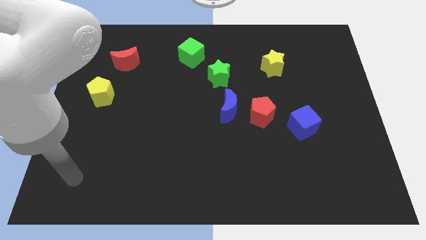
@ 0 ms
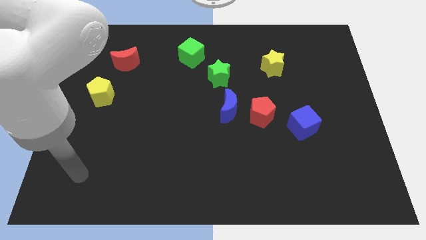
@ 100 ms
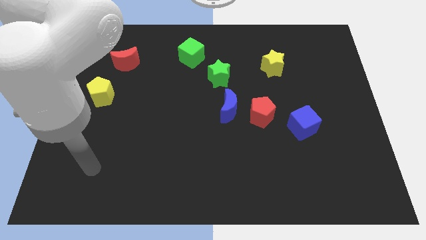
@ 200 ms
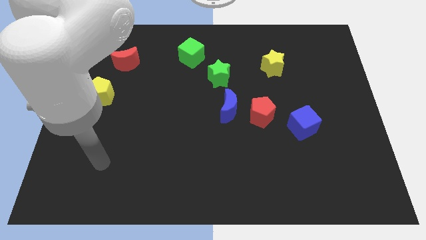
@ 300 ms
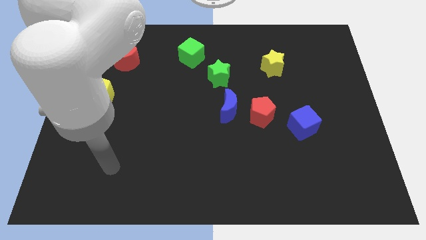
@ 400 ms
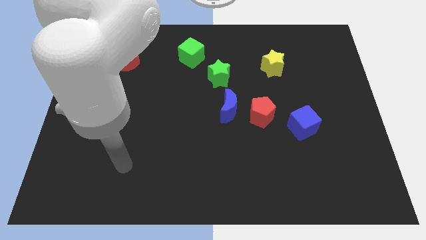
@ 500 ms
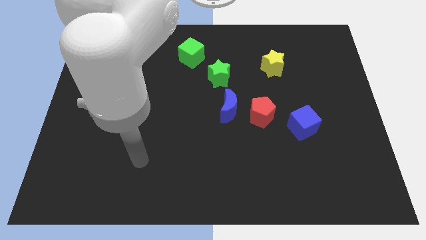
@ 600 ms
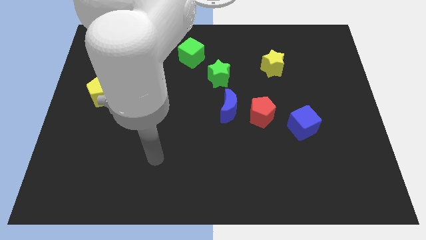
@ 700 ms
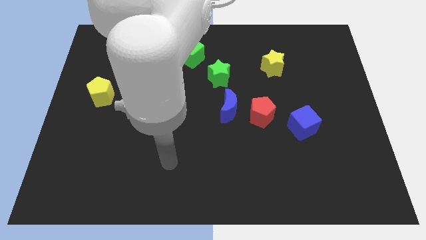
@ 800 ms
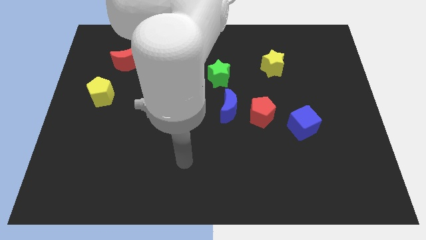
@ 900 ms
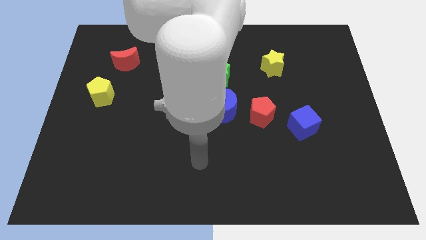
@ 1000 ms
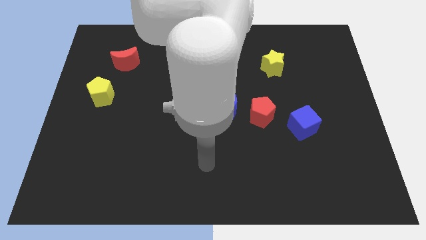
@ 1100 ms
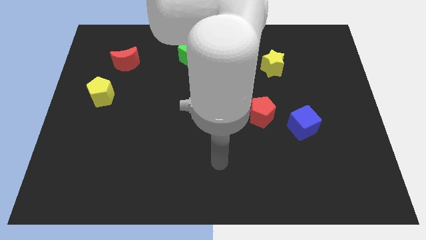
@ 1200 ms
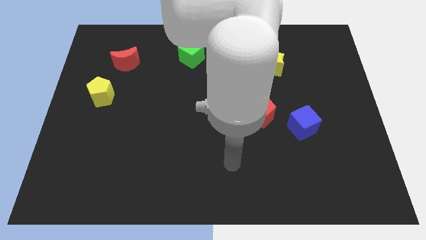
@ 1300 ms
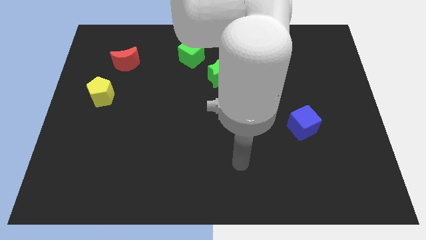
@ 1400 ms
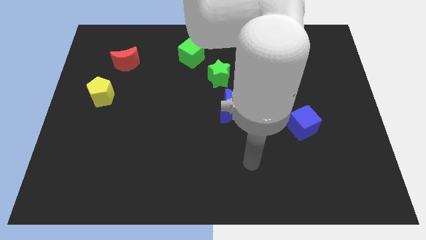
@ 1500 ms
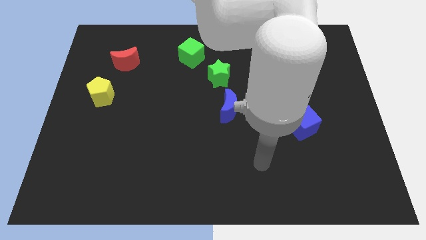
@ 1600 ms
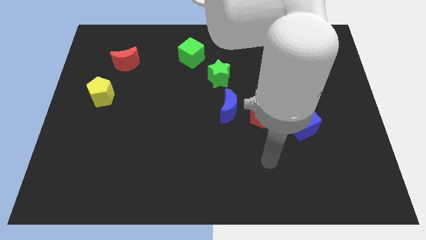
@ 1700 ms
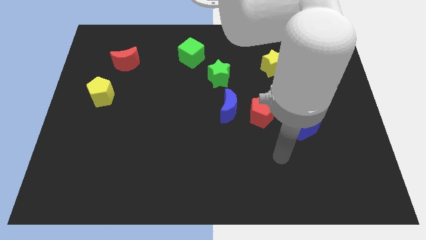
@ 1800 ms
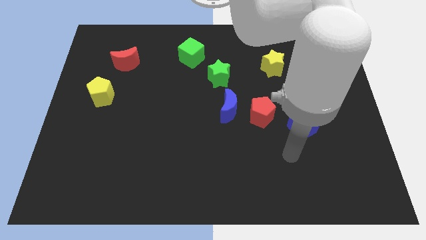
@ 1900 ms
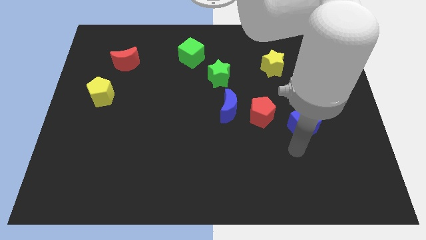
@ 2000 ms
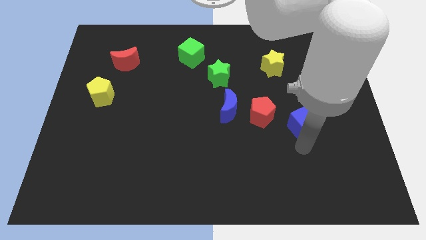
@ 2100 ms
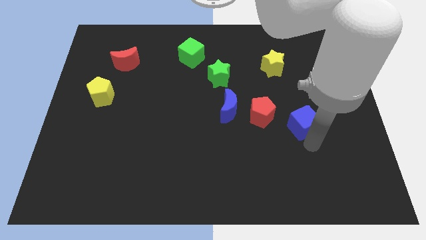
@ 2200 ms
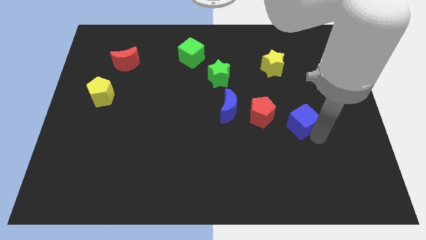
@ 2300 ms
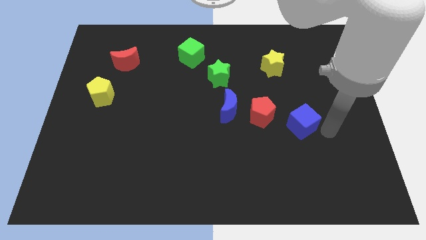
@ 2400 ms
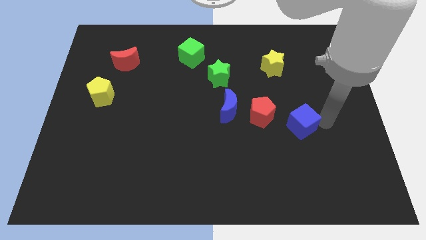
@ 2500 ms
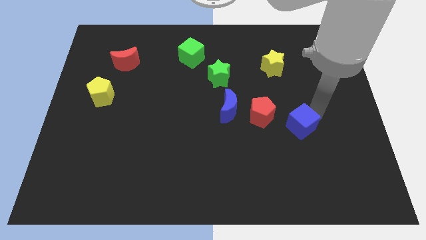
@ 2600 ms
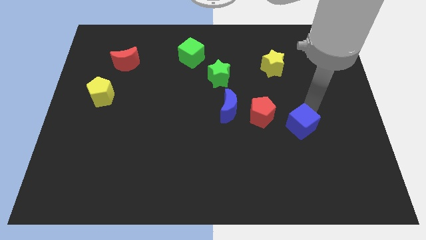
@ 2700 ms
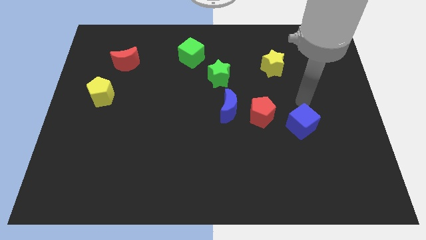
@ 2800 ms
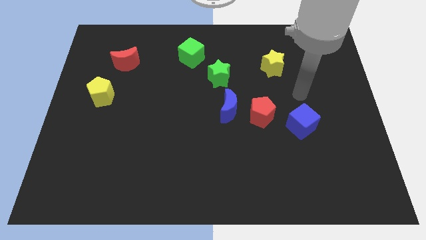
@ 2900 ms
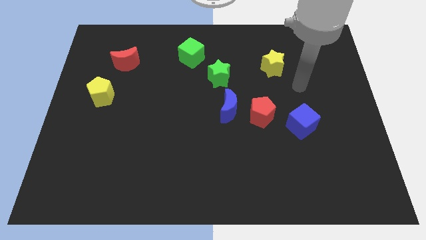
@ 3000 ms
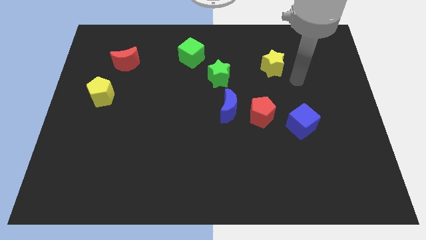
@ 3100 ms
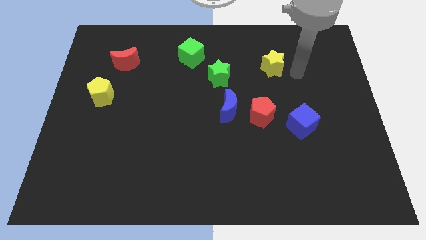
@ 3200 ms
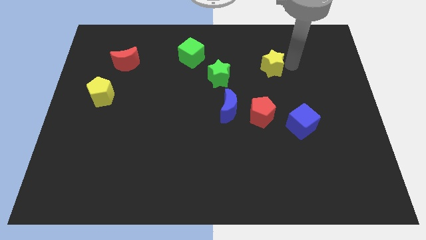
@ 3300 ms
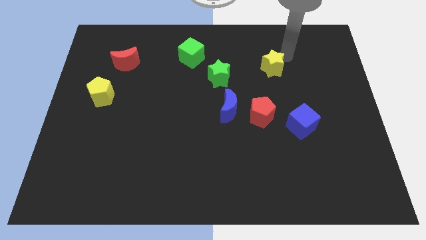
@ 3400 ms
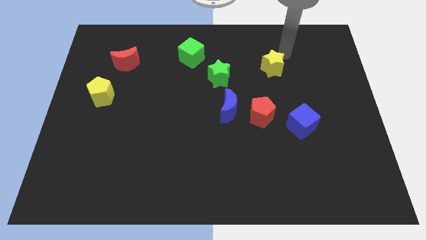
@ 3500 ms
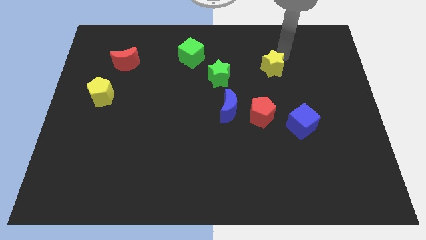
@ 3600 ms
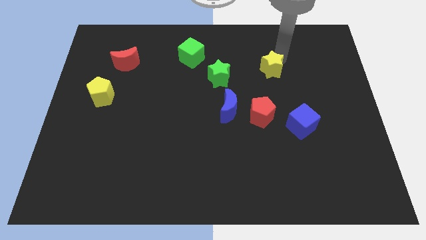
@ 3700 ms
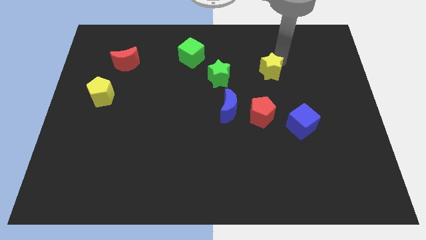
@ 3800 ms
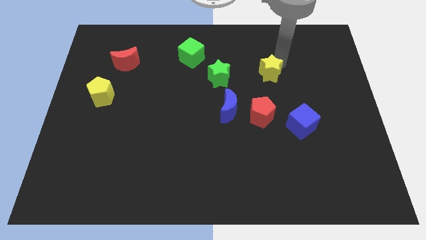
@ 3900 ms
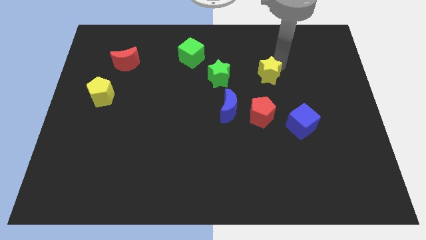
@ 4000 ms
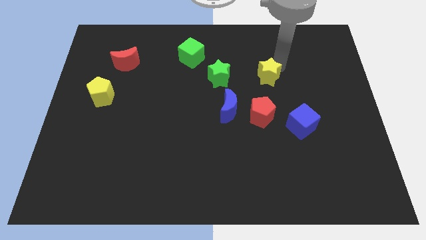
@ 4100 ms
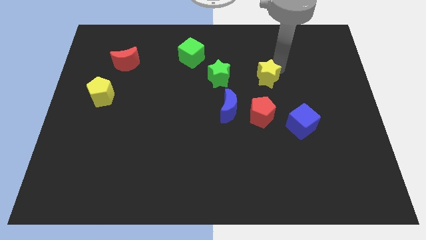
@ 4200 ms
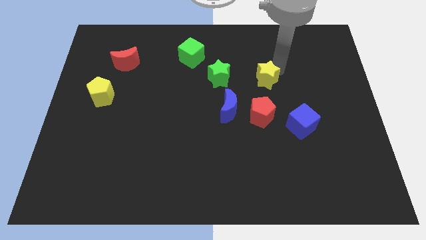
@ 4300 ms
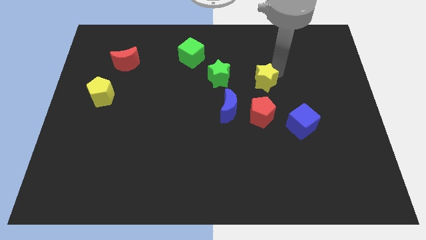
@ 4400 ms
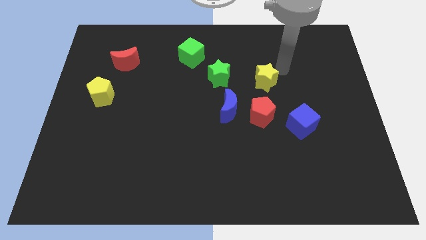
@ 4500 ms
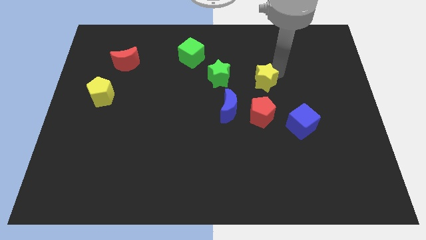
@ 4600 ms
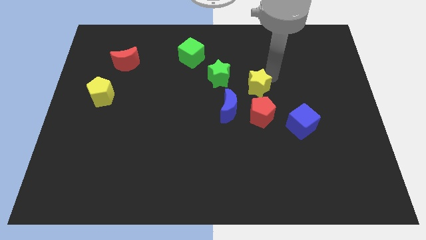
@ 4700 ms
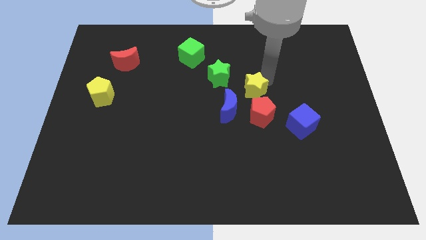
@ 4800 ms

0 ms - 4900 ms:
push the yellow star to the top left of the red pentagon

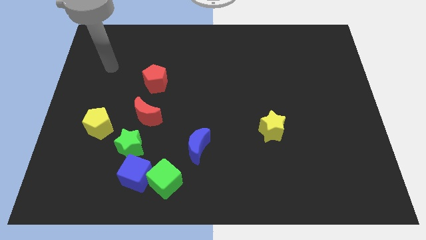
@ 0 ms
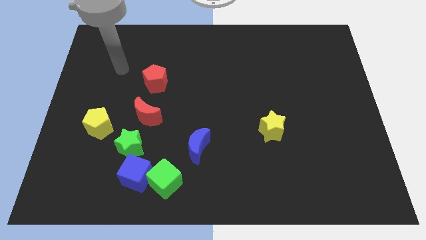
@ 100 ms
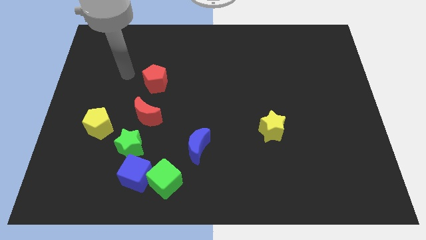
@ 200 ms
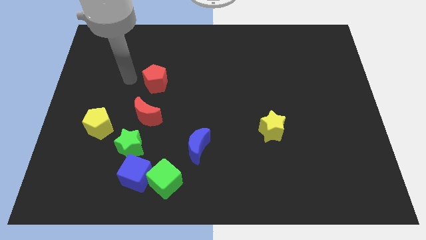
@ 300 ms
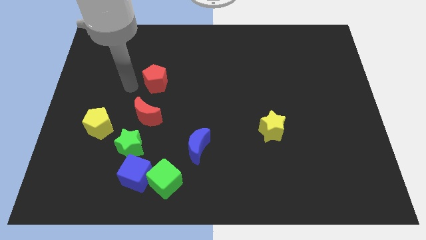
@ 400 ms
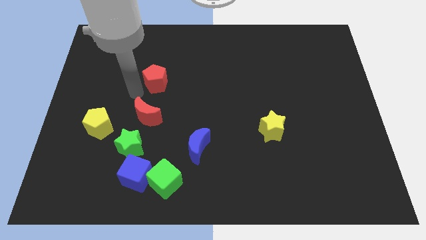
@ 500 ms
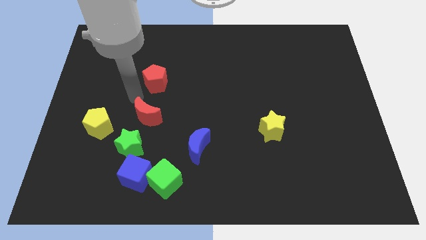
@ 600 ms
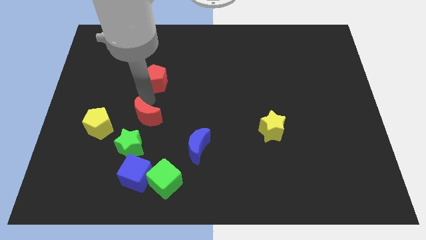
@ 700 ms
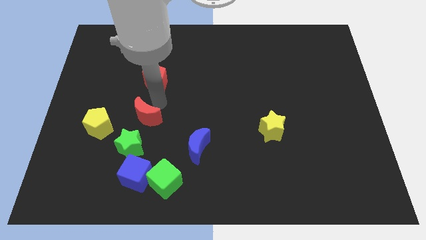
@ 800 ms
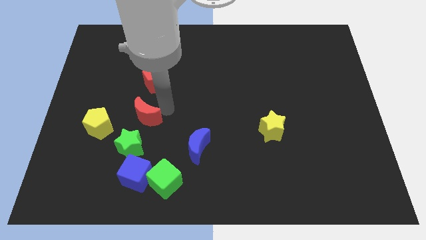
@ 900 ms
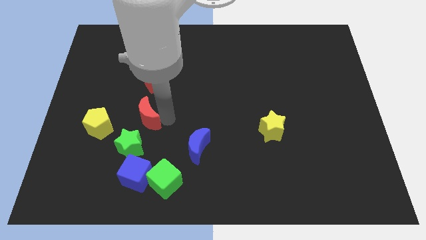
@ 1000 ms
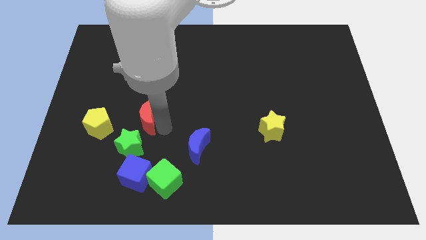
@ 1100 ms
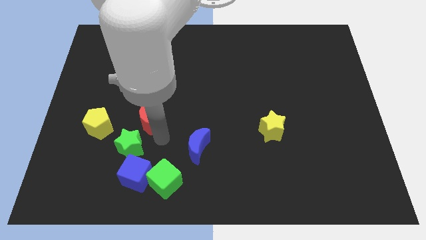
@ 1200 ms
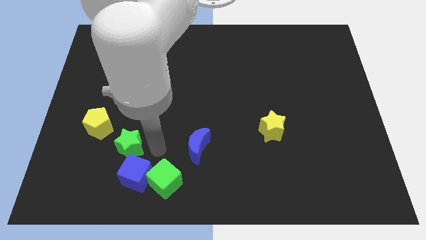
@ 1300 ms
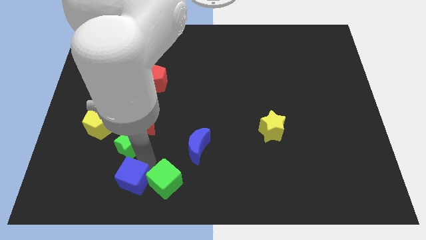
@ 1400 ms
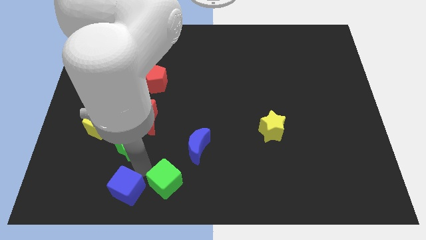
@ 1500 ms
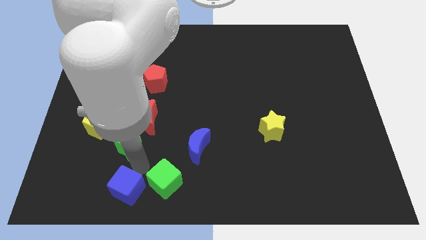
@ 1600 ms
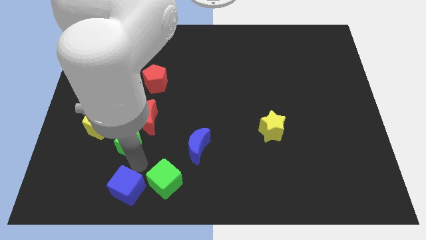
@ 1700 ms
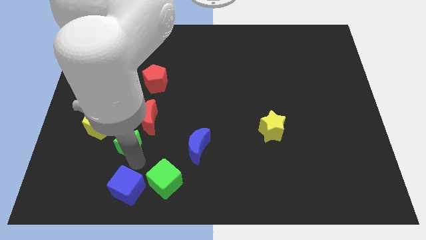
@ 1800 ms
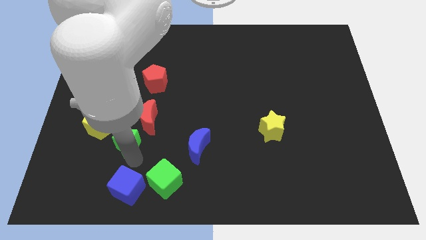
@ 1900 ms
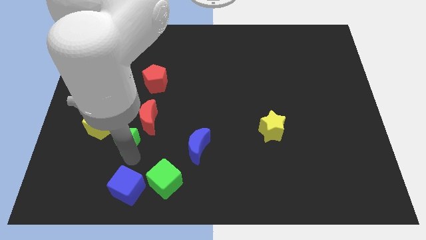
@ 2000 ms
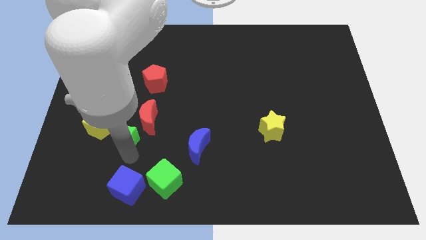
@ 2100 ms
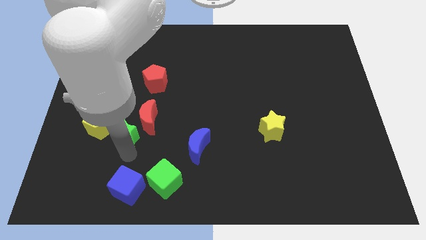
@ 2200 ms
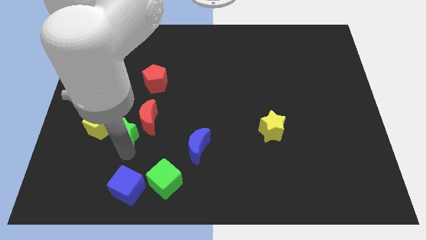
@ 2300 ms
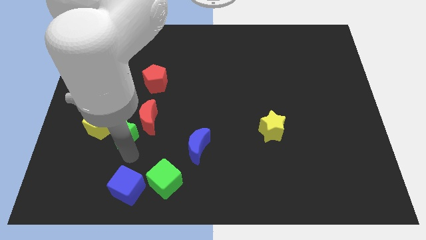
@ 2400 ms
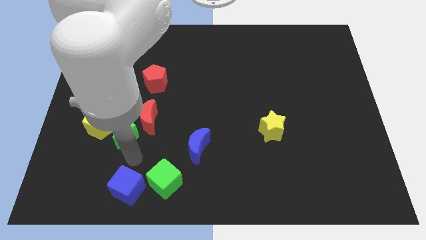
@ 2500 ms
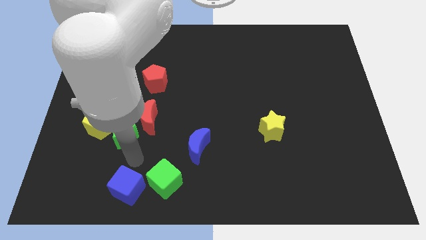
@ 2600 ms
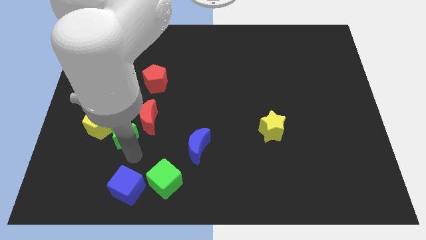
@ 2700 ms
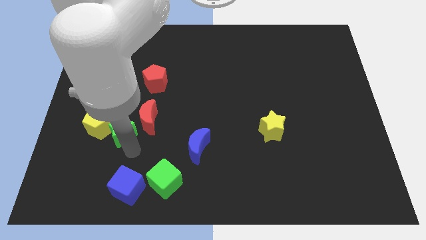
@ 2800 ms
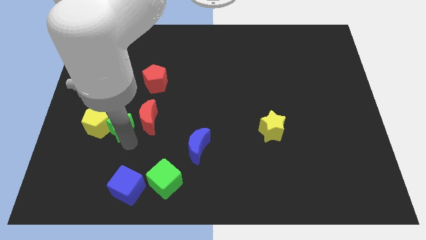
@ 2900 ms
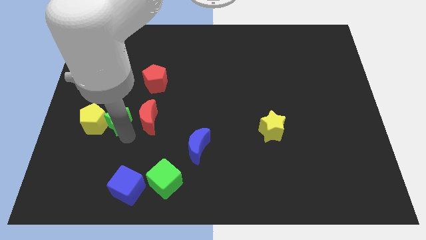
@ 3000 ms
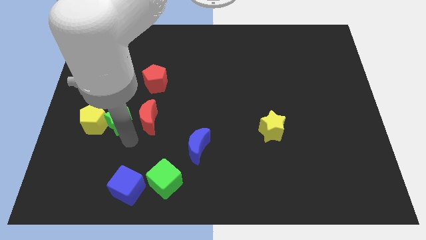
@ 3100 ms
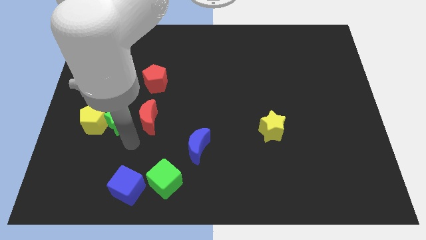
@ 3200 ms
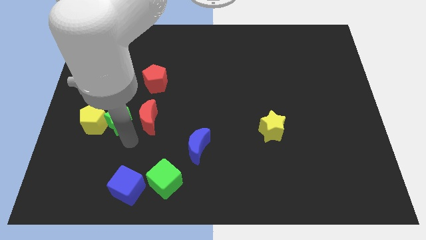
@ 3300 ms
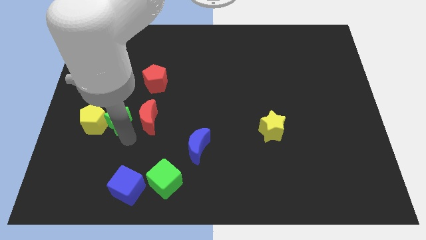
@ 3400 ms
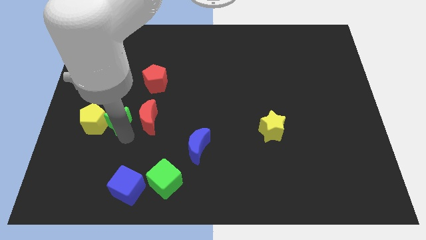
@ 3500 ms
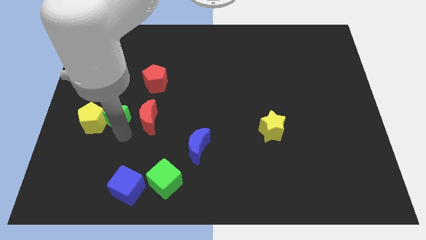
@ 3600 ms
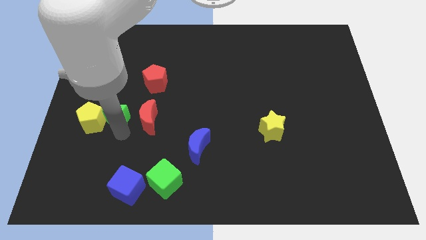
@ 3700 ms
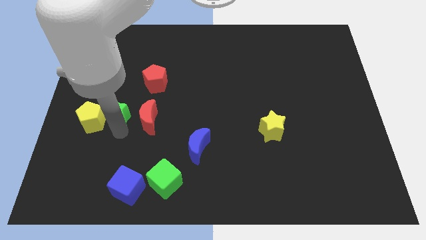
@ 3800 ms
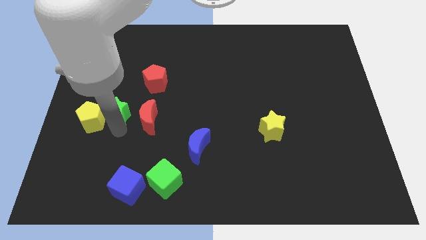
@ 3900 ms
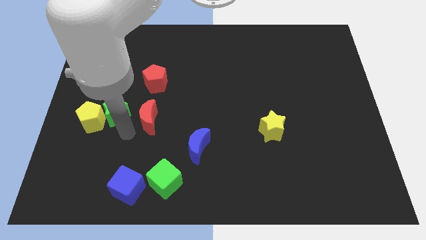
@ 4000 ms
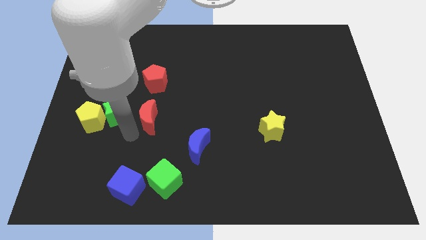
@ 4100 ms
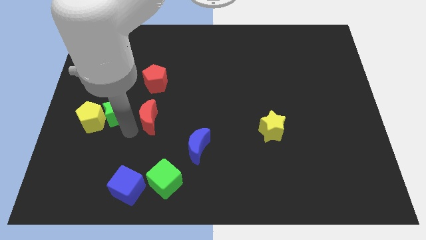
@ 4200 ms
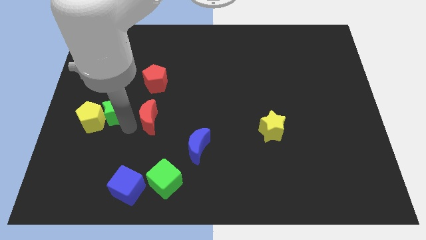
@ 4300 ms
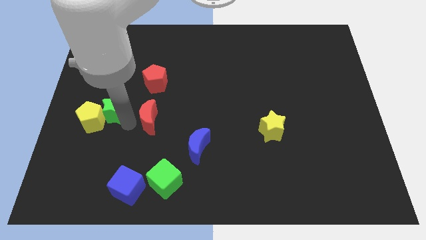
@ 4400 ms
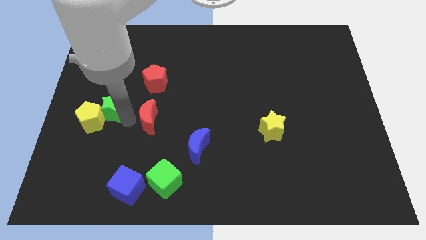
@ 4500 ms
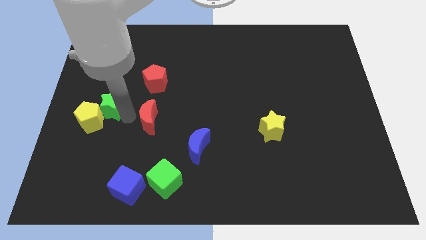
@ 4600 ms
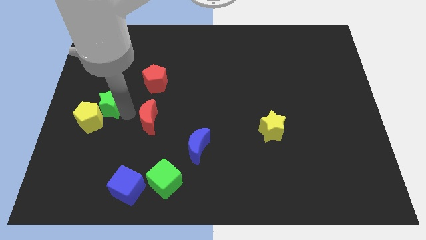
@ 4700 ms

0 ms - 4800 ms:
put the green star to the top of the yellow pentagon
